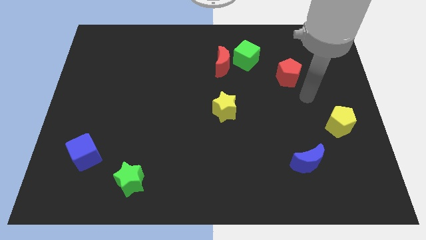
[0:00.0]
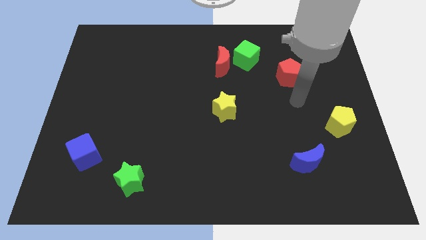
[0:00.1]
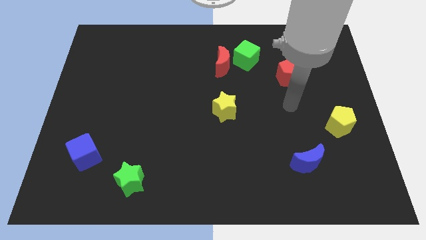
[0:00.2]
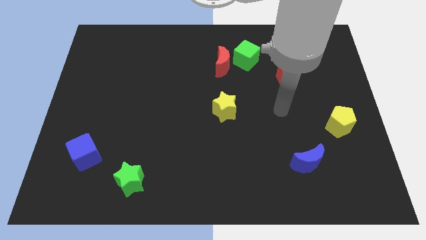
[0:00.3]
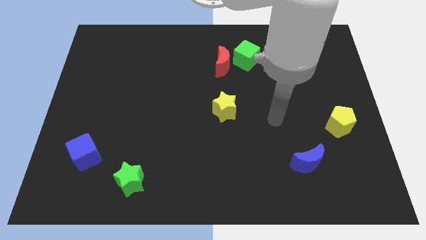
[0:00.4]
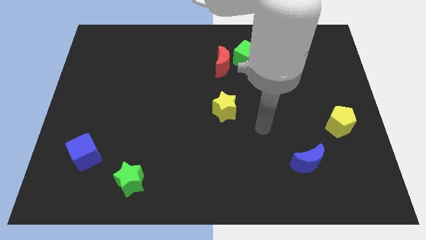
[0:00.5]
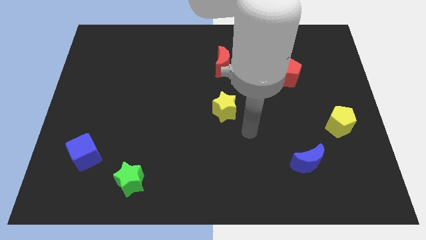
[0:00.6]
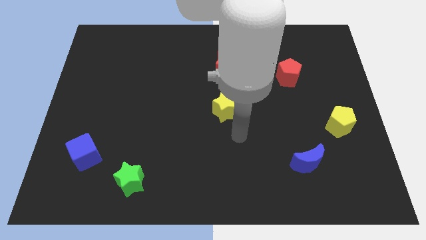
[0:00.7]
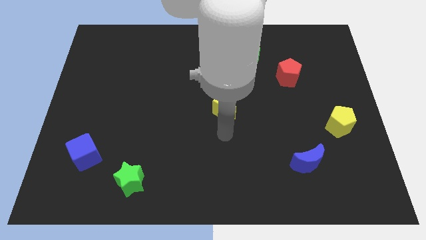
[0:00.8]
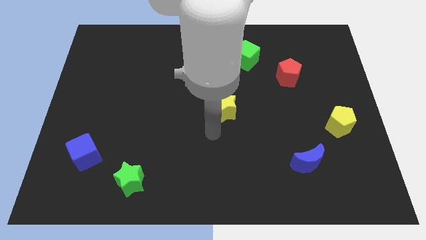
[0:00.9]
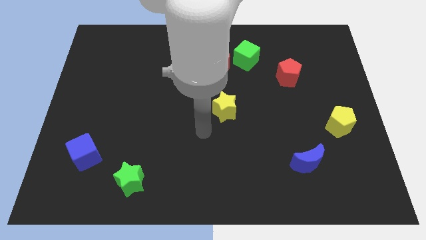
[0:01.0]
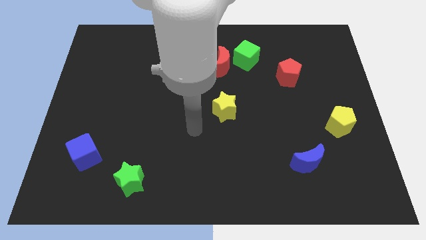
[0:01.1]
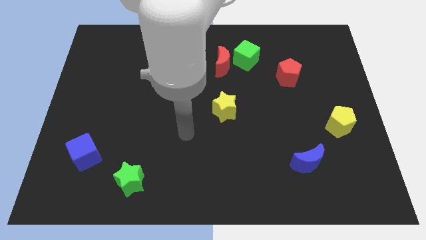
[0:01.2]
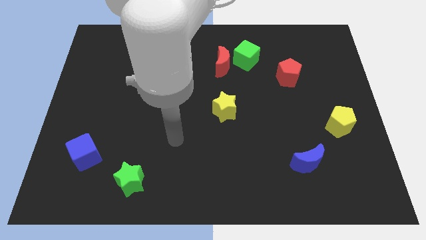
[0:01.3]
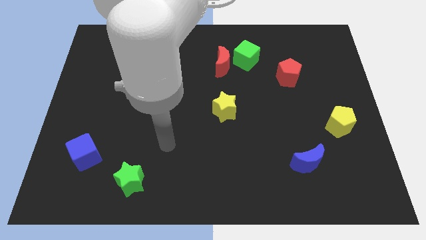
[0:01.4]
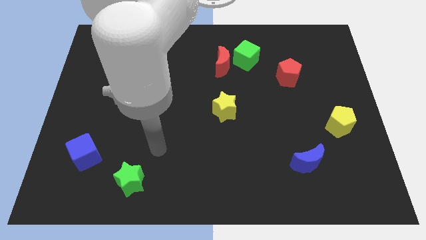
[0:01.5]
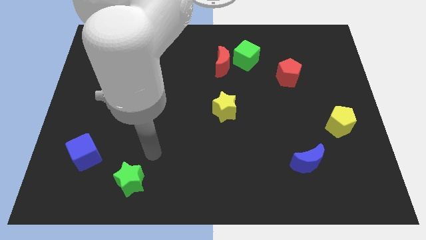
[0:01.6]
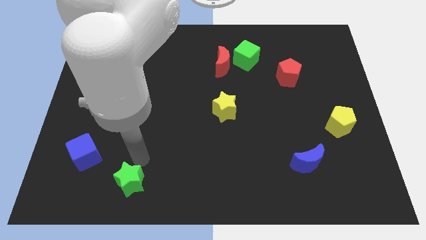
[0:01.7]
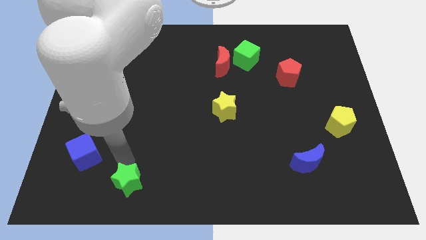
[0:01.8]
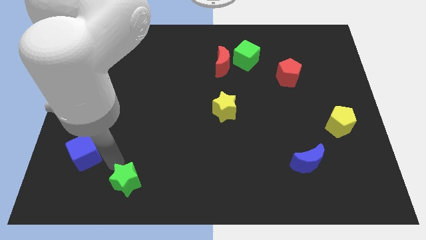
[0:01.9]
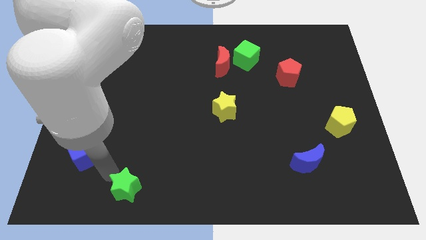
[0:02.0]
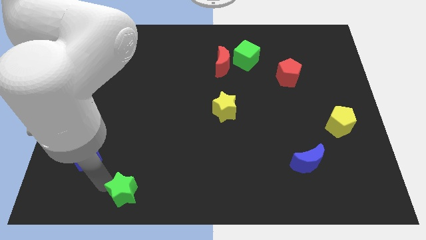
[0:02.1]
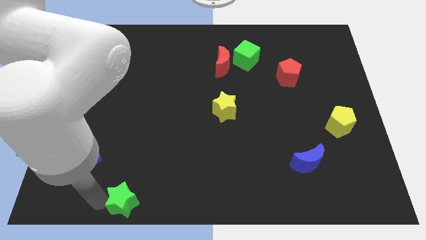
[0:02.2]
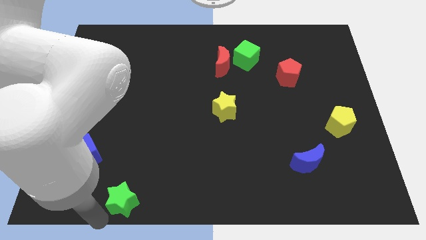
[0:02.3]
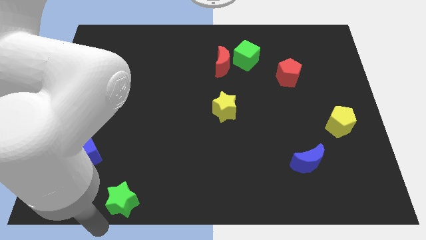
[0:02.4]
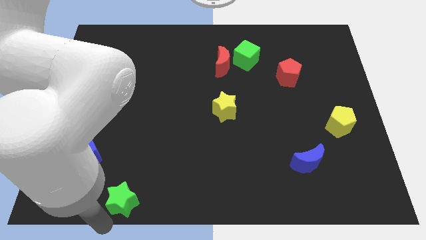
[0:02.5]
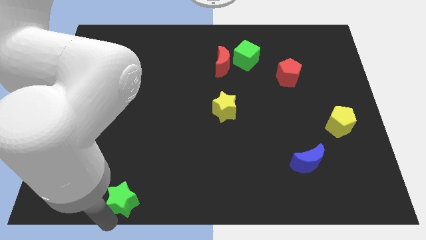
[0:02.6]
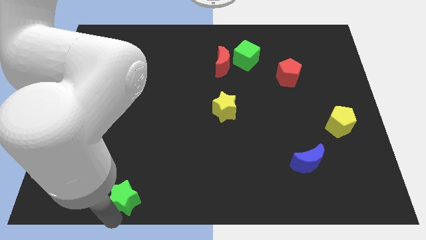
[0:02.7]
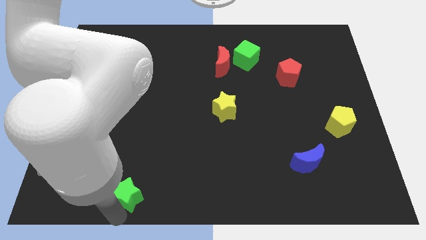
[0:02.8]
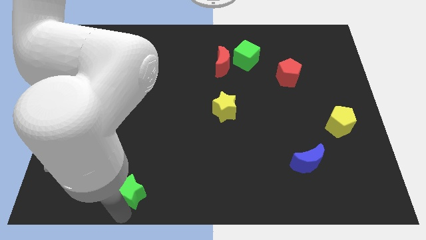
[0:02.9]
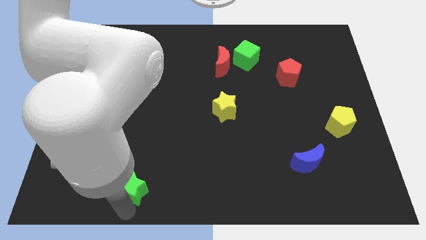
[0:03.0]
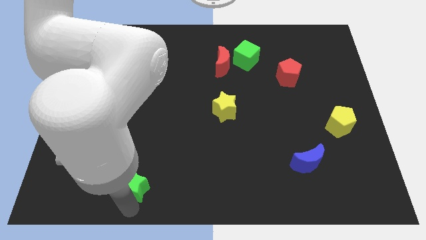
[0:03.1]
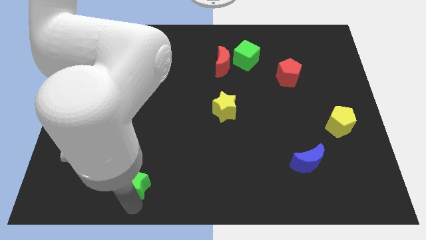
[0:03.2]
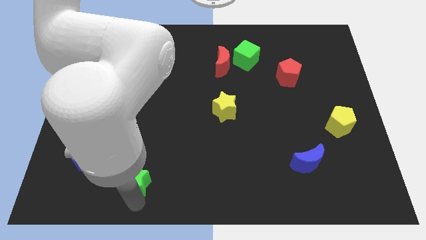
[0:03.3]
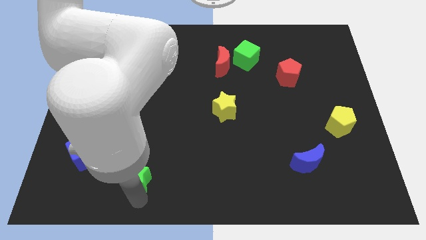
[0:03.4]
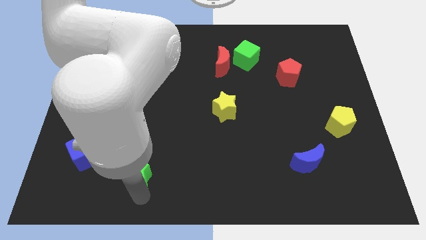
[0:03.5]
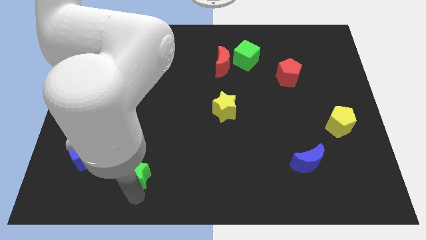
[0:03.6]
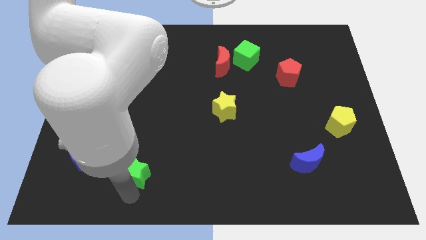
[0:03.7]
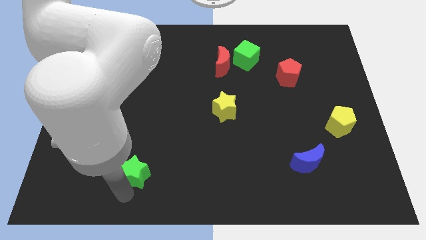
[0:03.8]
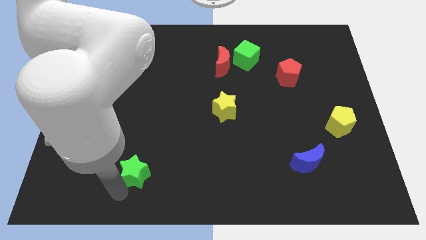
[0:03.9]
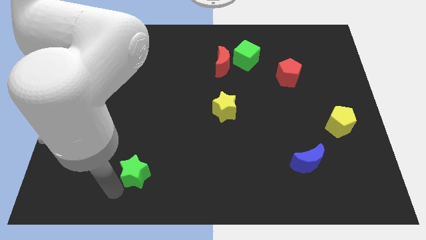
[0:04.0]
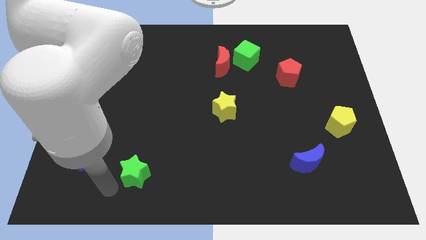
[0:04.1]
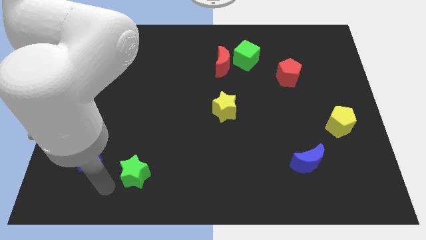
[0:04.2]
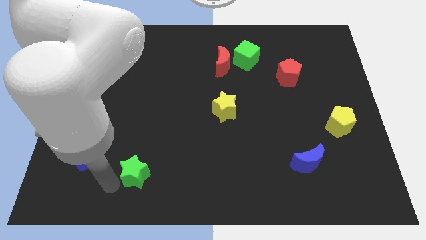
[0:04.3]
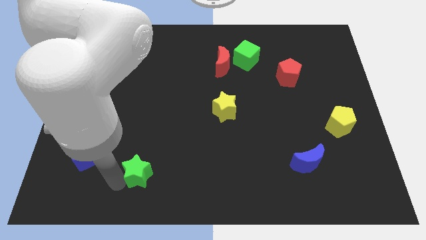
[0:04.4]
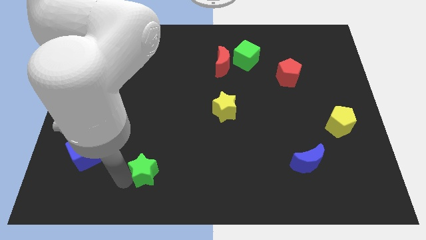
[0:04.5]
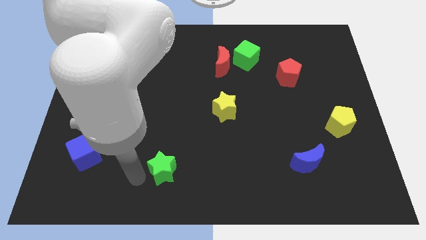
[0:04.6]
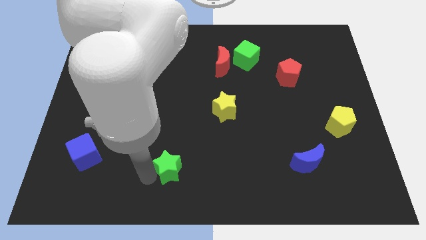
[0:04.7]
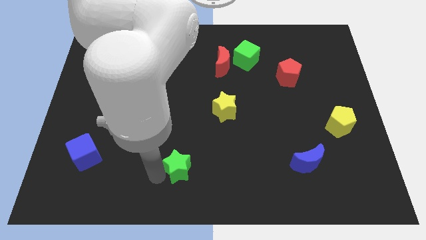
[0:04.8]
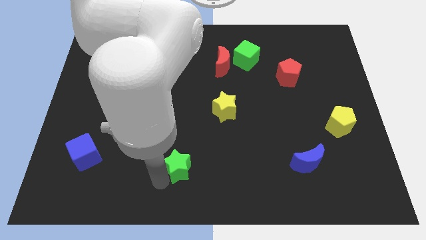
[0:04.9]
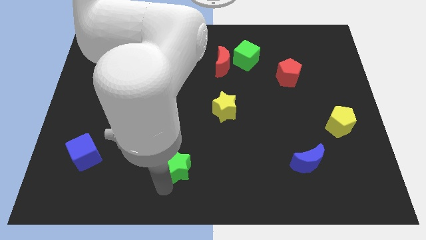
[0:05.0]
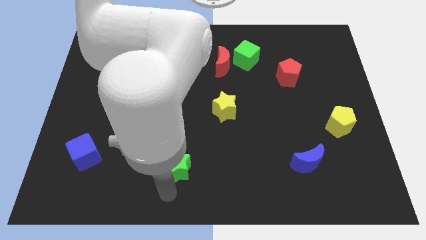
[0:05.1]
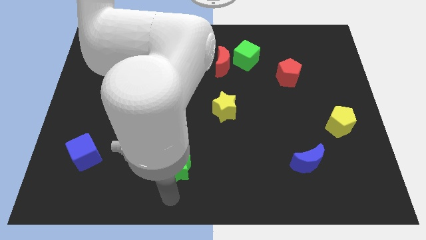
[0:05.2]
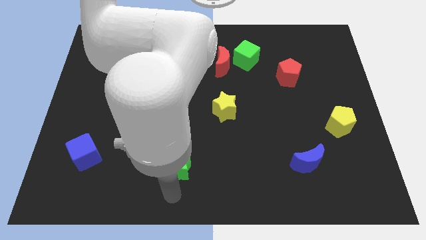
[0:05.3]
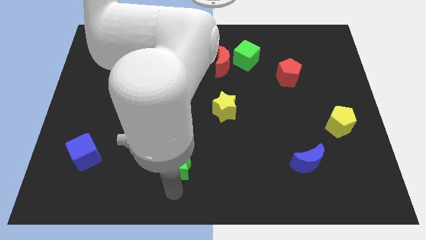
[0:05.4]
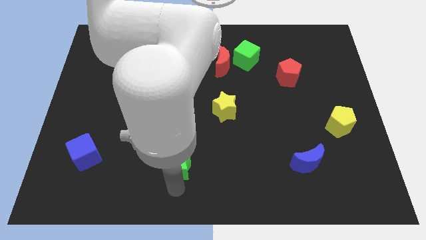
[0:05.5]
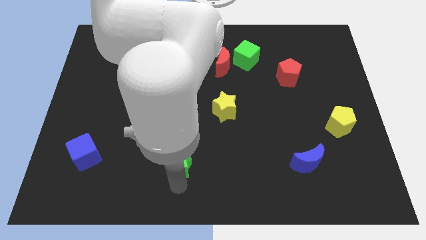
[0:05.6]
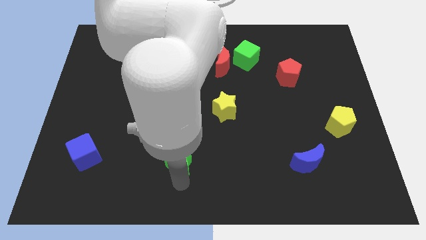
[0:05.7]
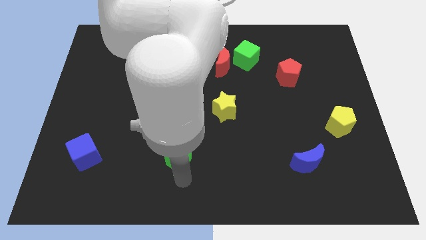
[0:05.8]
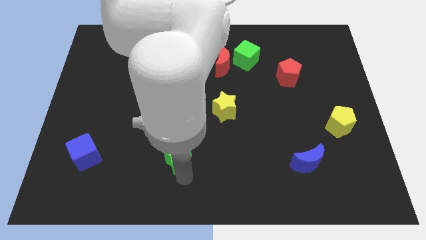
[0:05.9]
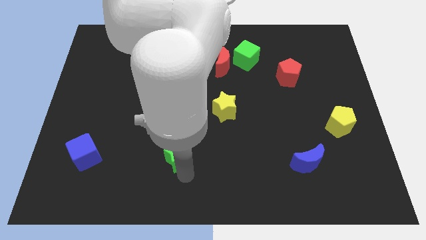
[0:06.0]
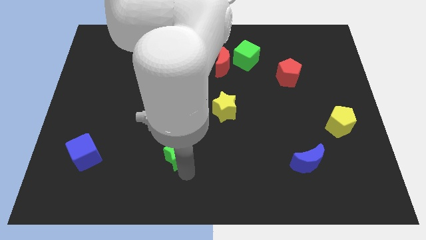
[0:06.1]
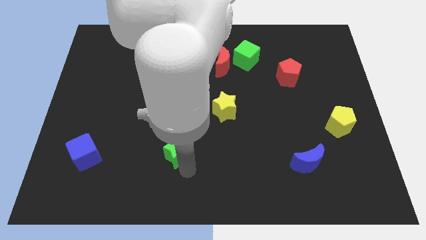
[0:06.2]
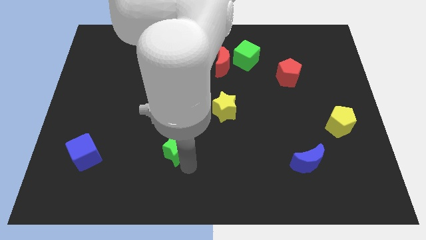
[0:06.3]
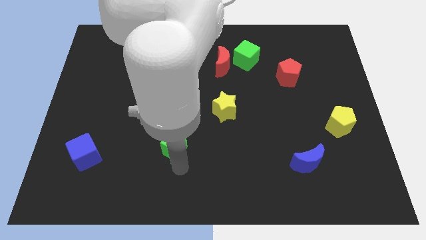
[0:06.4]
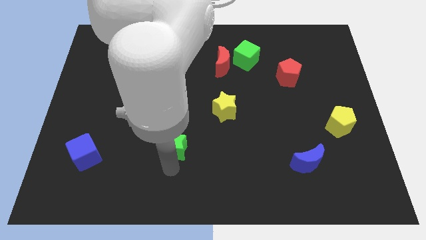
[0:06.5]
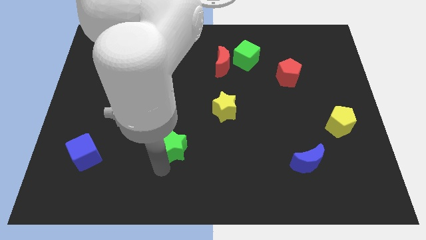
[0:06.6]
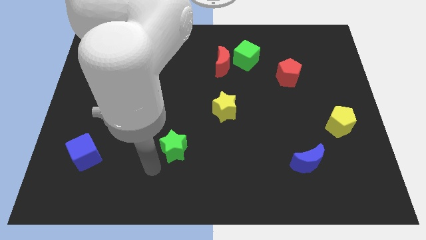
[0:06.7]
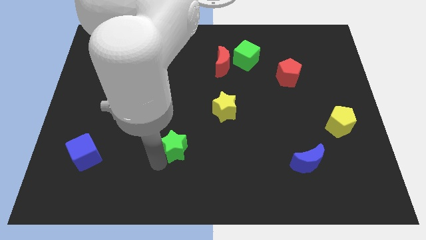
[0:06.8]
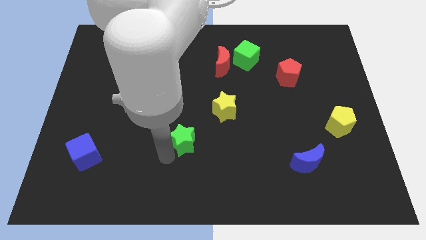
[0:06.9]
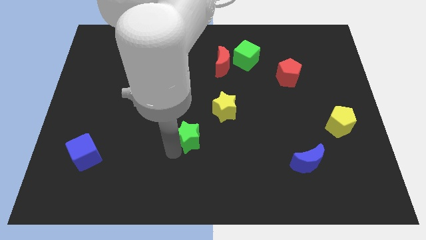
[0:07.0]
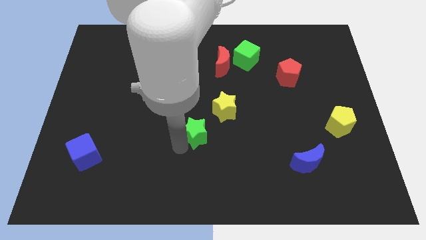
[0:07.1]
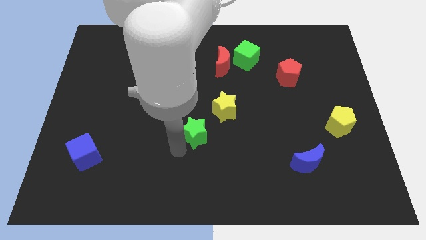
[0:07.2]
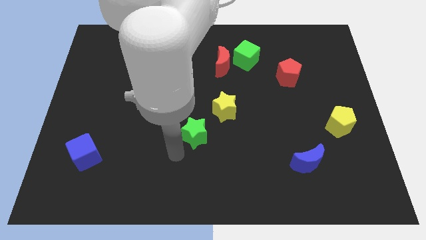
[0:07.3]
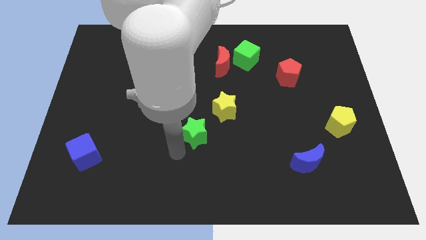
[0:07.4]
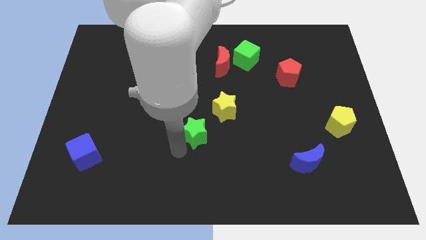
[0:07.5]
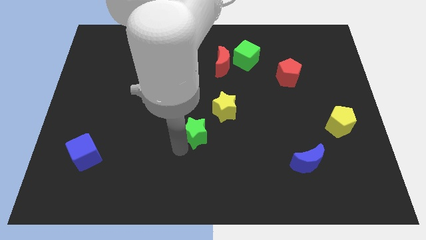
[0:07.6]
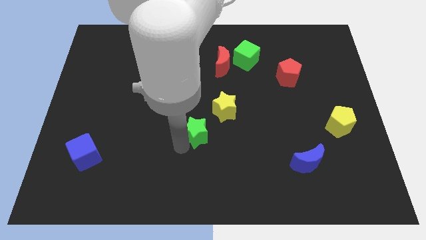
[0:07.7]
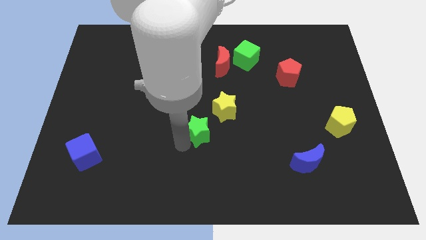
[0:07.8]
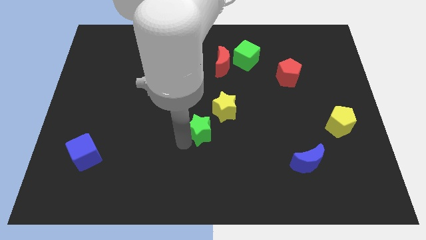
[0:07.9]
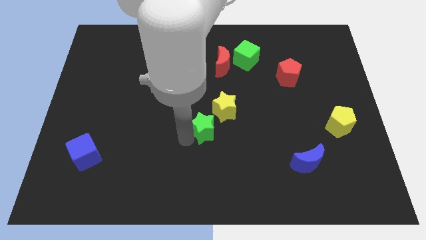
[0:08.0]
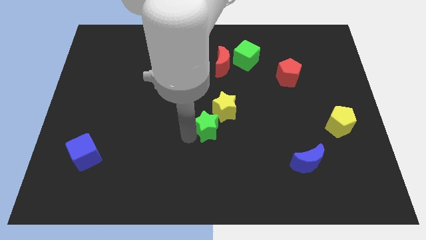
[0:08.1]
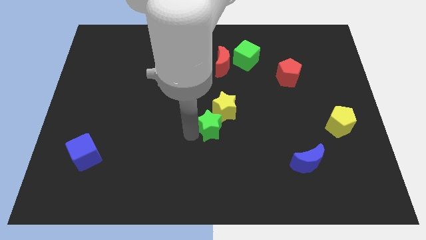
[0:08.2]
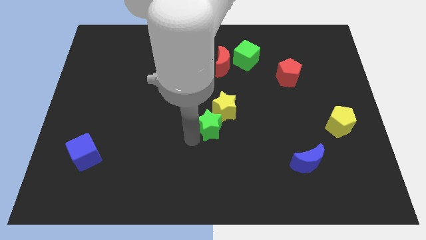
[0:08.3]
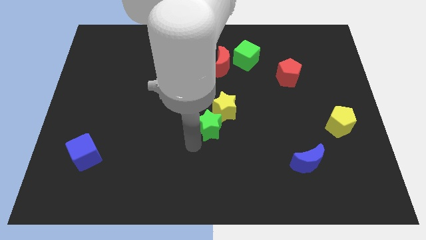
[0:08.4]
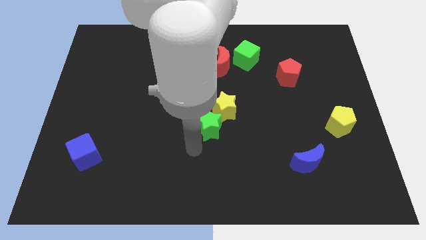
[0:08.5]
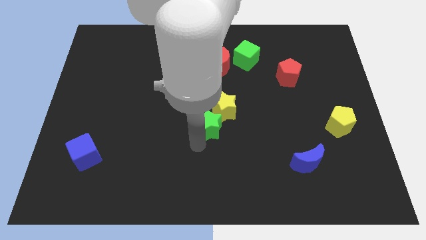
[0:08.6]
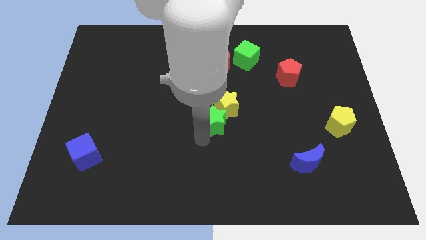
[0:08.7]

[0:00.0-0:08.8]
slide the green star to the yellow star
